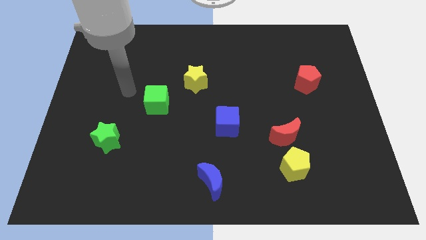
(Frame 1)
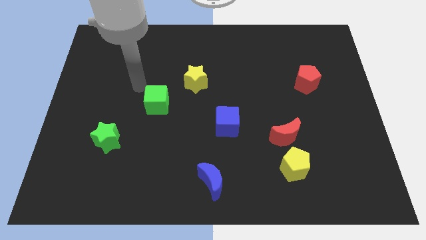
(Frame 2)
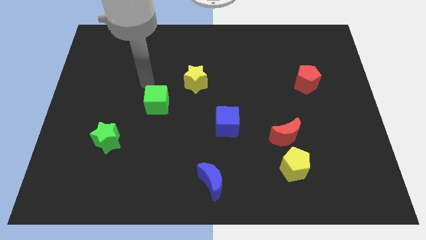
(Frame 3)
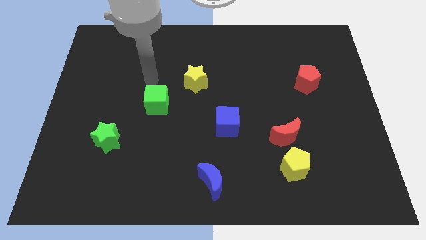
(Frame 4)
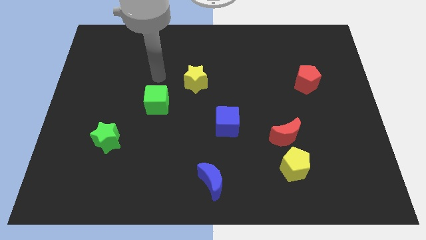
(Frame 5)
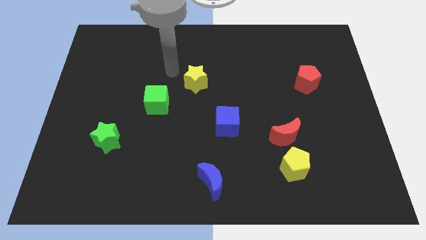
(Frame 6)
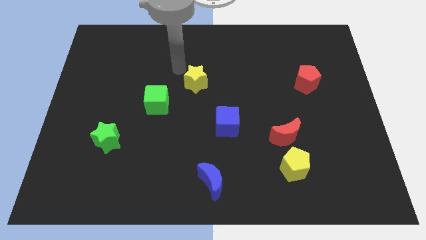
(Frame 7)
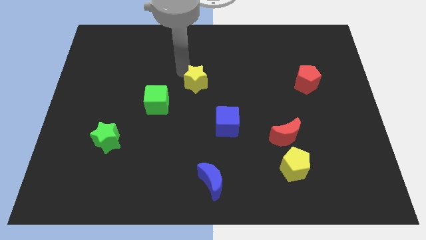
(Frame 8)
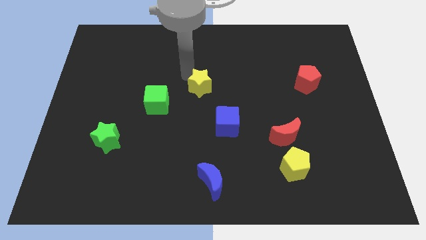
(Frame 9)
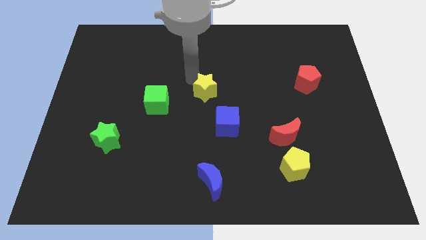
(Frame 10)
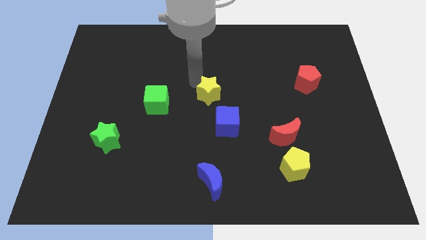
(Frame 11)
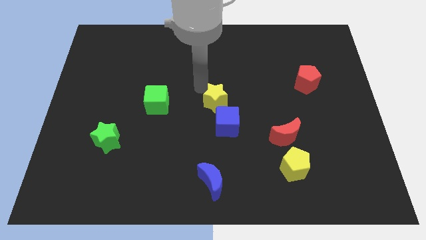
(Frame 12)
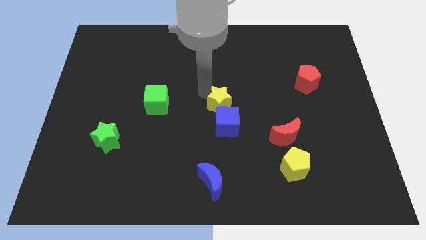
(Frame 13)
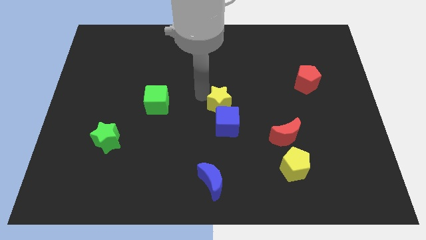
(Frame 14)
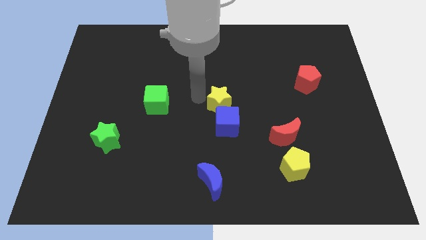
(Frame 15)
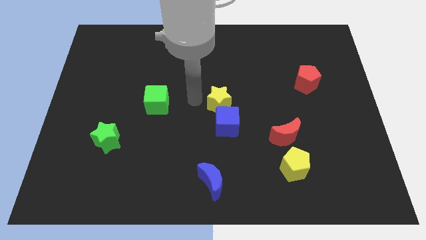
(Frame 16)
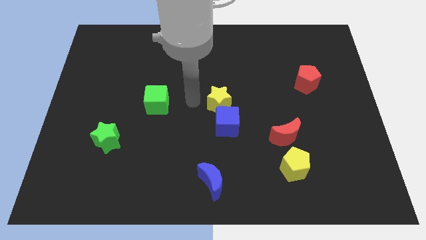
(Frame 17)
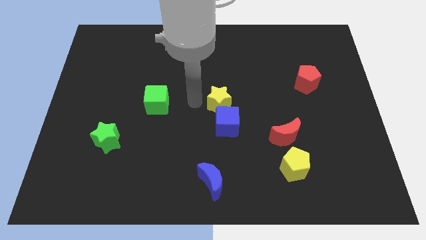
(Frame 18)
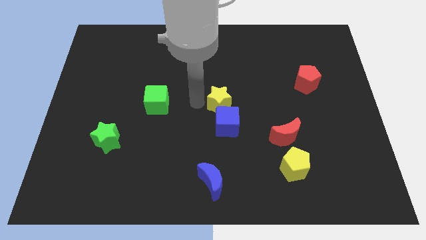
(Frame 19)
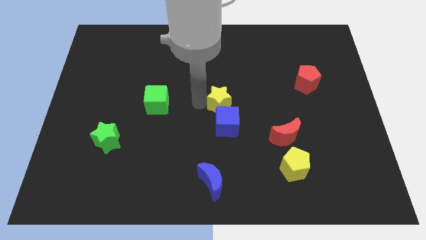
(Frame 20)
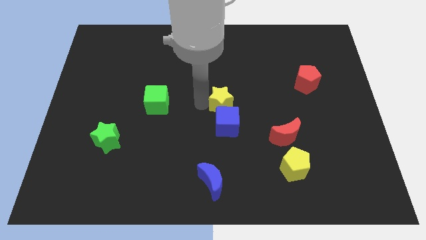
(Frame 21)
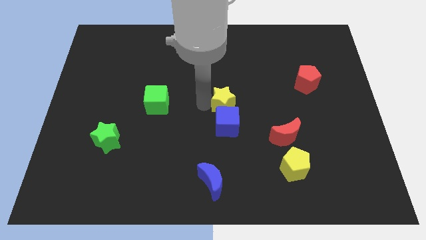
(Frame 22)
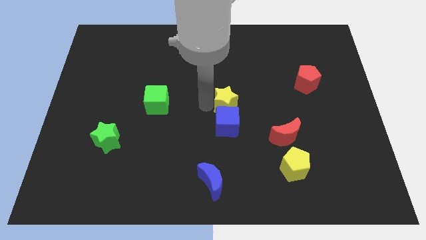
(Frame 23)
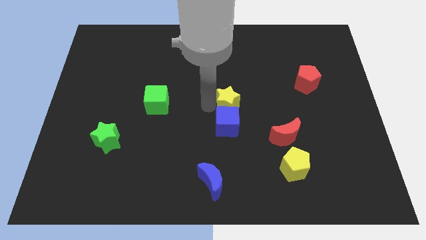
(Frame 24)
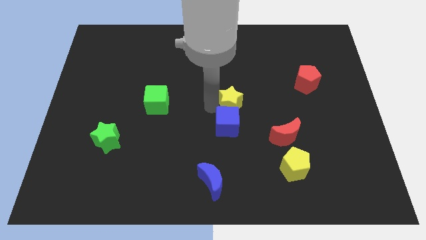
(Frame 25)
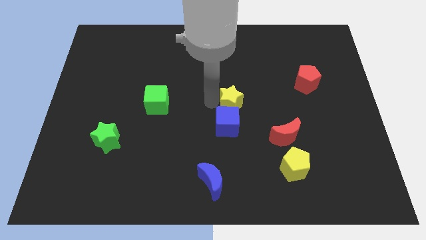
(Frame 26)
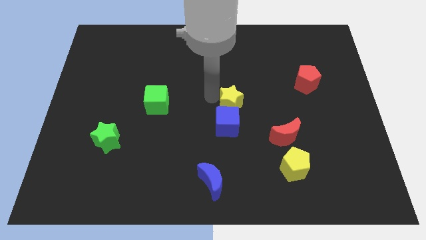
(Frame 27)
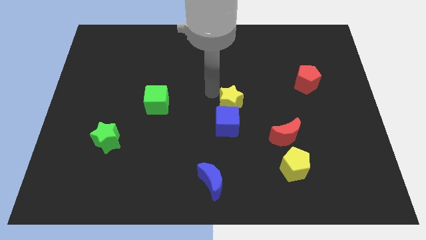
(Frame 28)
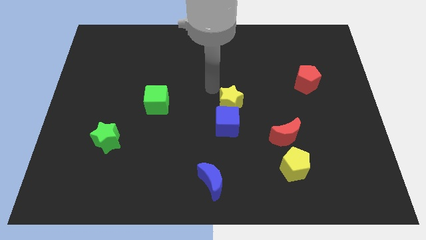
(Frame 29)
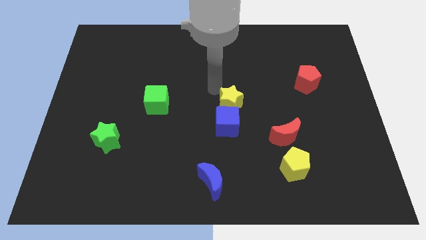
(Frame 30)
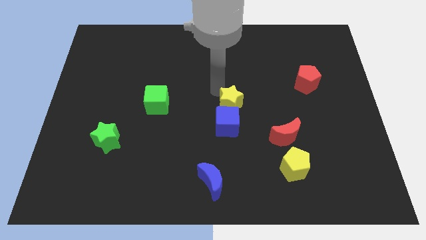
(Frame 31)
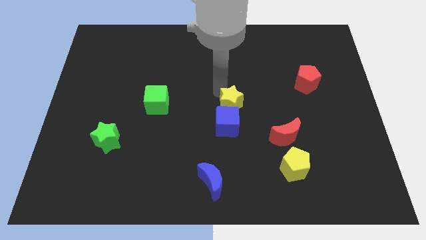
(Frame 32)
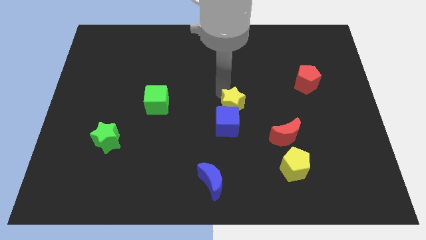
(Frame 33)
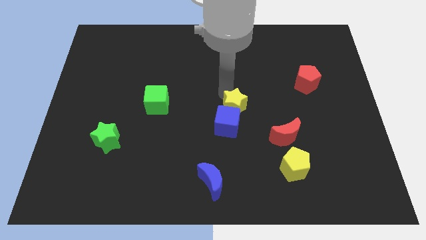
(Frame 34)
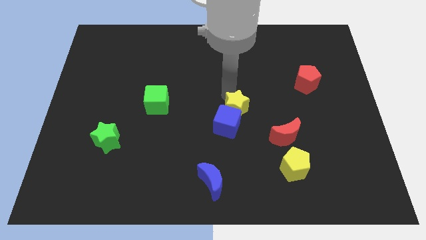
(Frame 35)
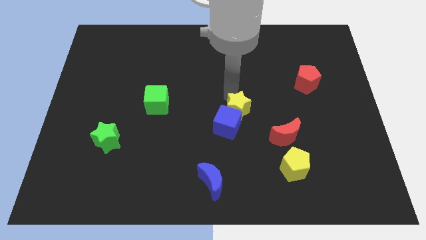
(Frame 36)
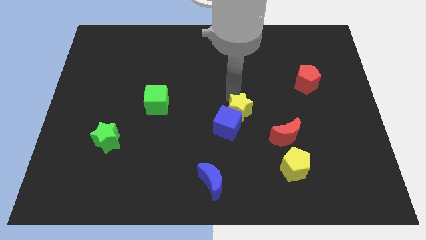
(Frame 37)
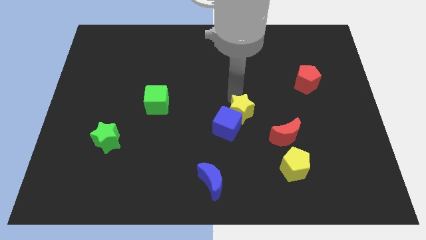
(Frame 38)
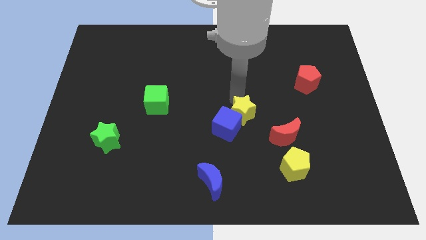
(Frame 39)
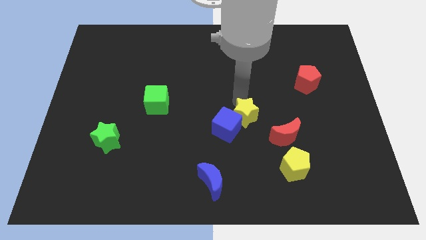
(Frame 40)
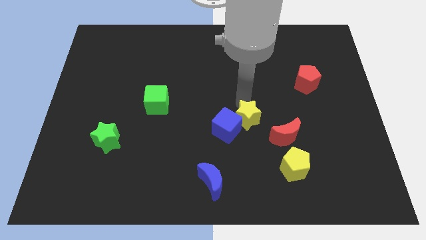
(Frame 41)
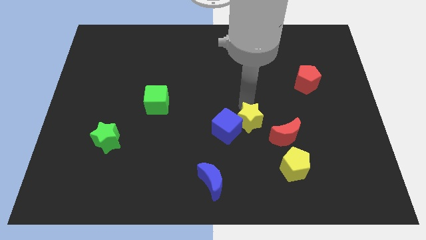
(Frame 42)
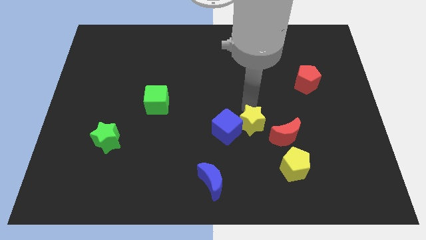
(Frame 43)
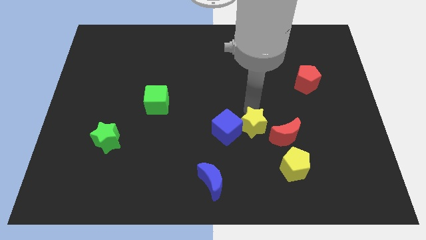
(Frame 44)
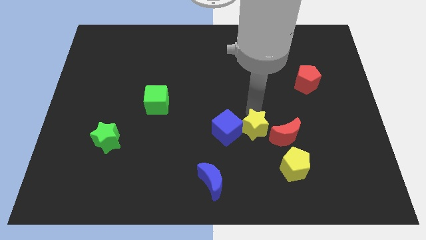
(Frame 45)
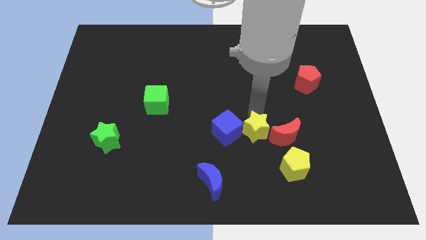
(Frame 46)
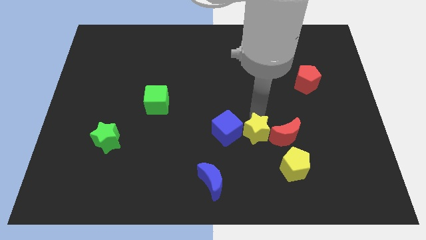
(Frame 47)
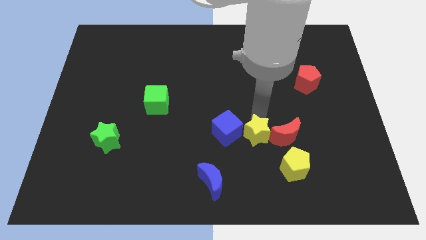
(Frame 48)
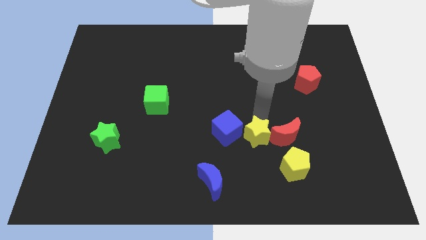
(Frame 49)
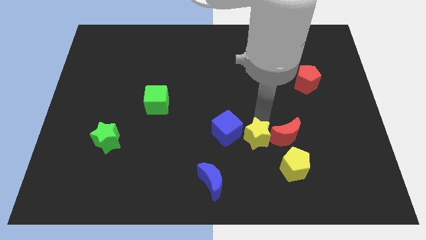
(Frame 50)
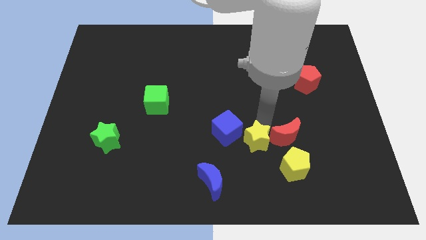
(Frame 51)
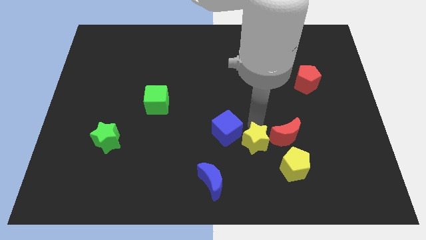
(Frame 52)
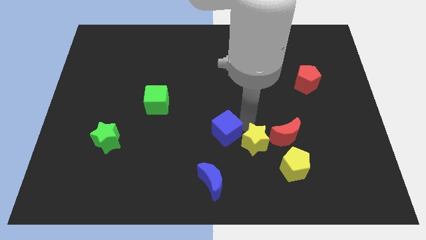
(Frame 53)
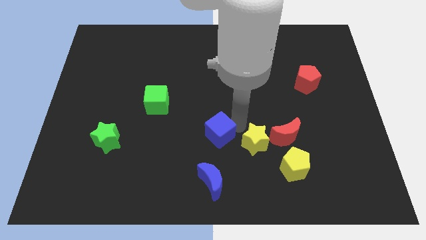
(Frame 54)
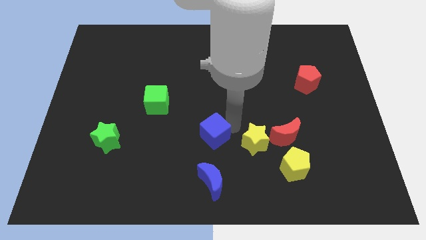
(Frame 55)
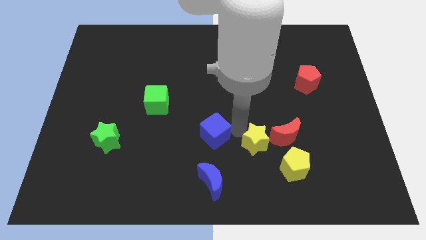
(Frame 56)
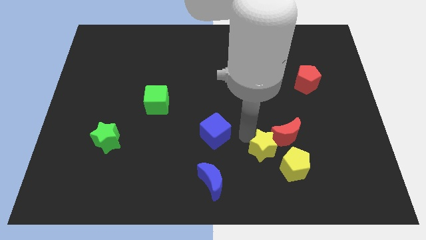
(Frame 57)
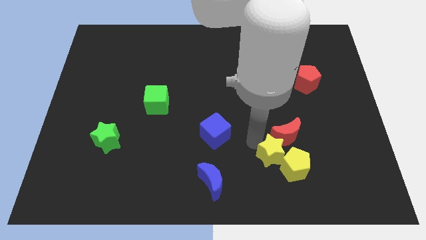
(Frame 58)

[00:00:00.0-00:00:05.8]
push the yellow star close to the yellow pentagon
